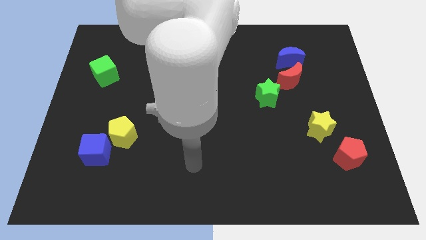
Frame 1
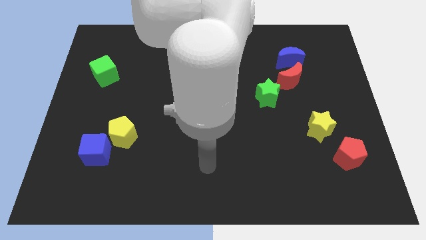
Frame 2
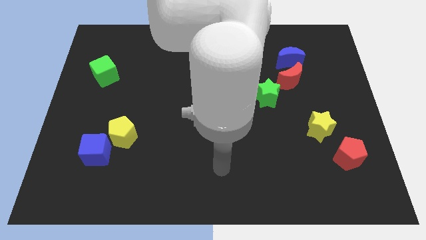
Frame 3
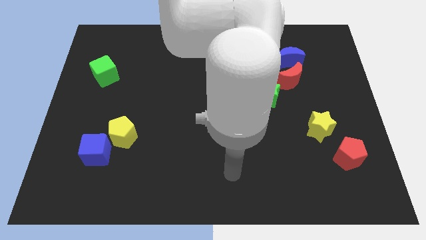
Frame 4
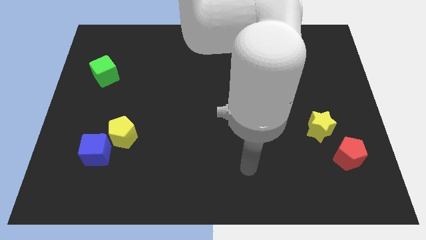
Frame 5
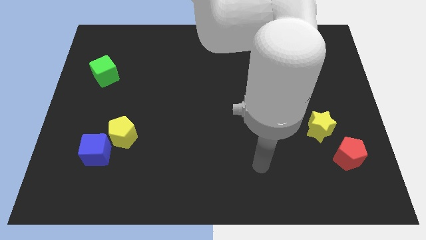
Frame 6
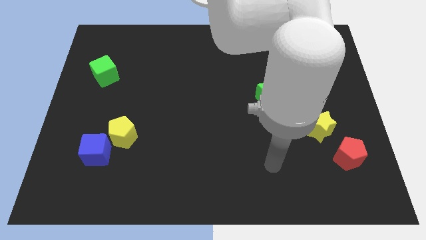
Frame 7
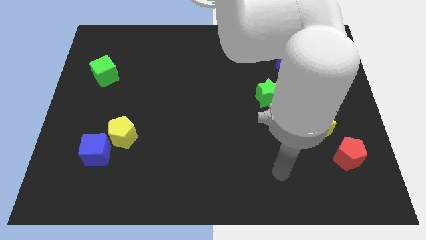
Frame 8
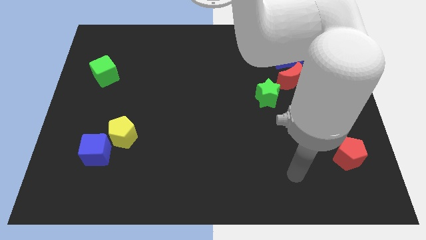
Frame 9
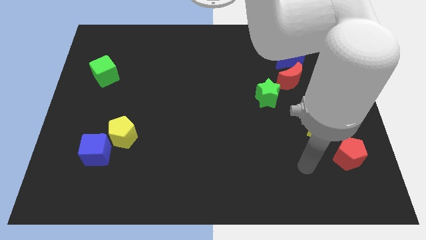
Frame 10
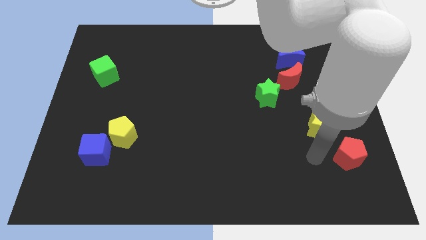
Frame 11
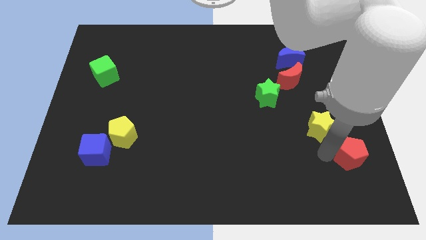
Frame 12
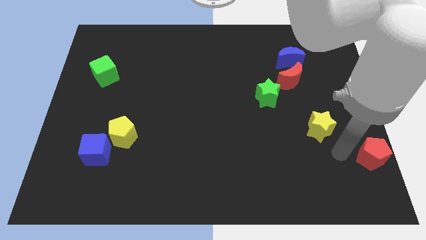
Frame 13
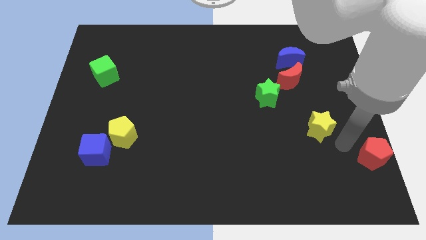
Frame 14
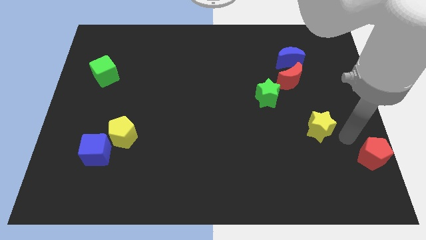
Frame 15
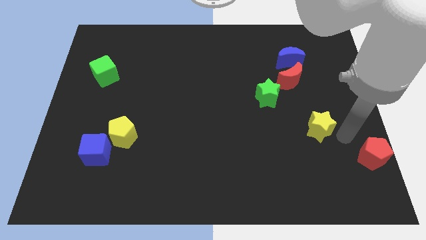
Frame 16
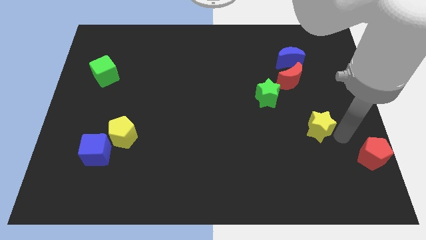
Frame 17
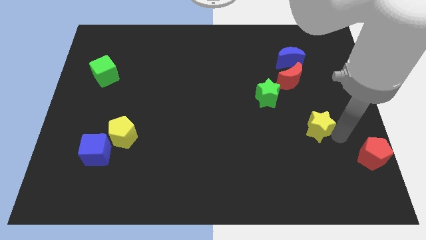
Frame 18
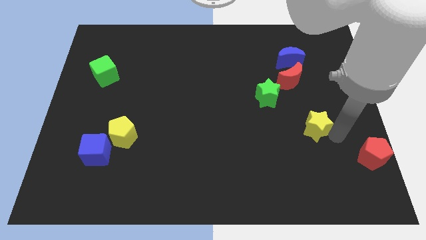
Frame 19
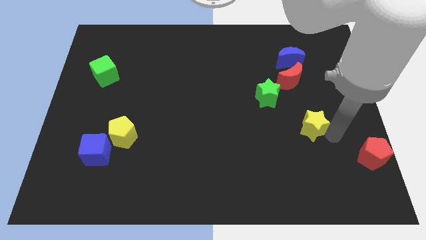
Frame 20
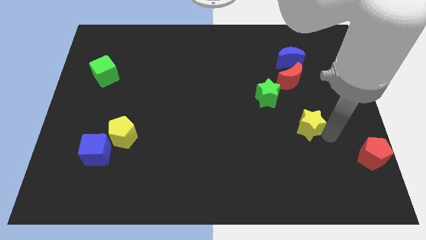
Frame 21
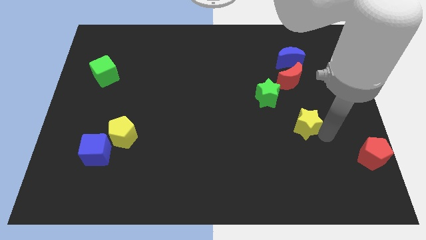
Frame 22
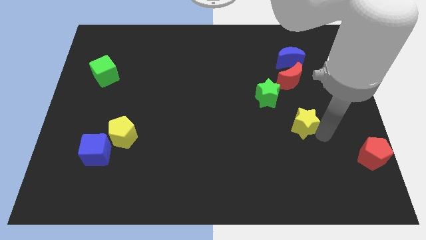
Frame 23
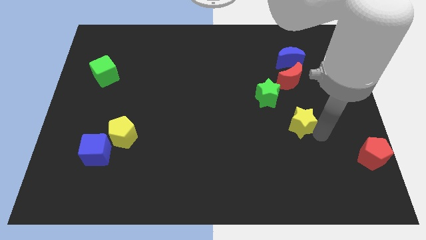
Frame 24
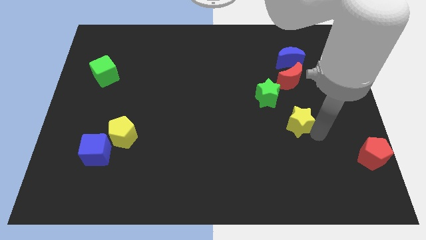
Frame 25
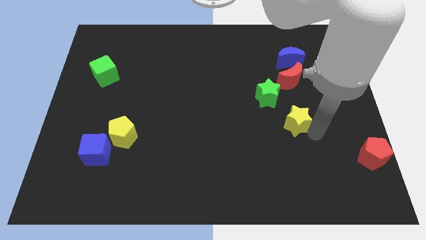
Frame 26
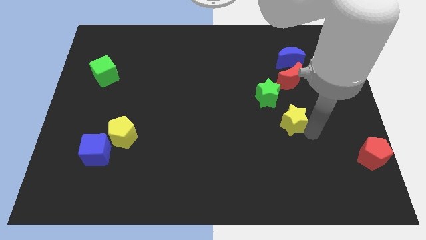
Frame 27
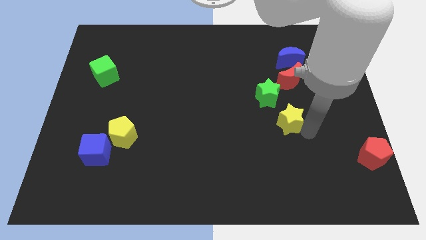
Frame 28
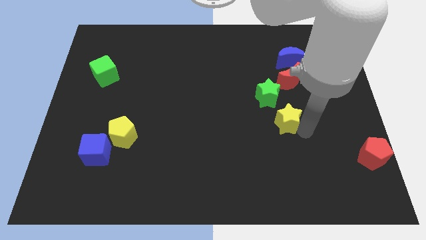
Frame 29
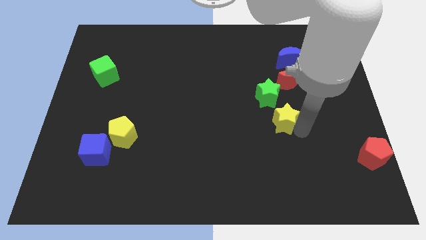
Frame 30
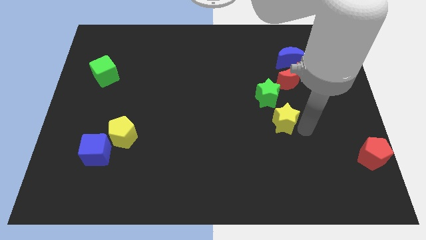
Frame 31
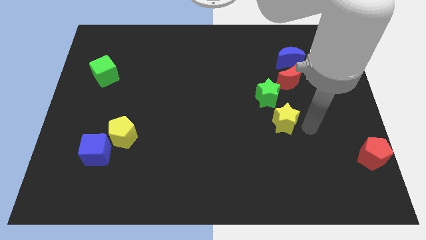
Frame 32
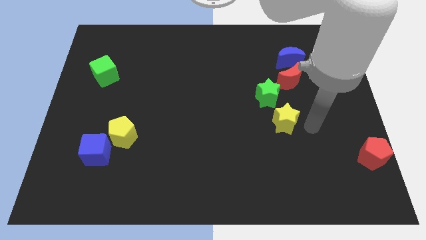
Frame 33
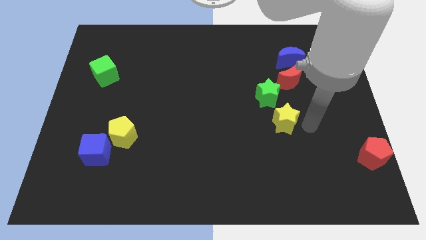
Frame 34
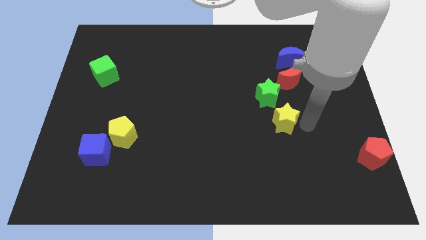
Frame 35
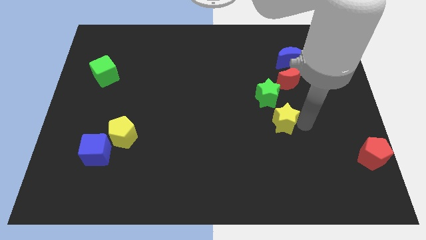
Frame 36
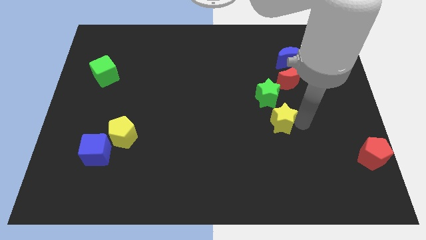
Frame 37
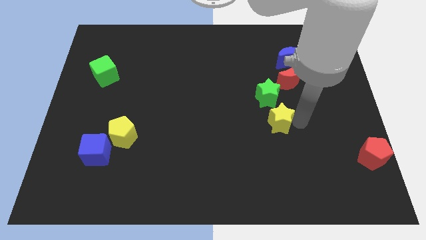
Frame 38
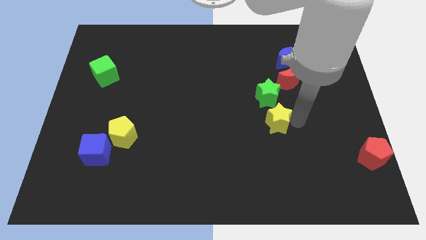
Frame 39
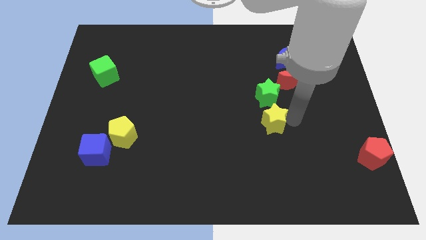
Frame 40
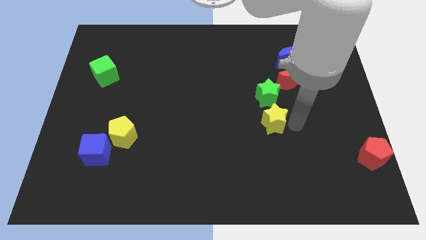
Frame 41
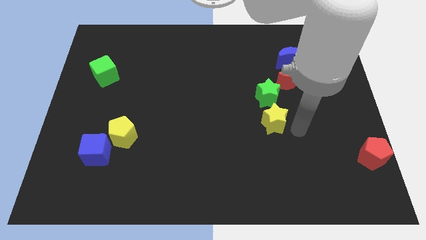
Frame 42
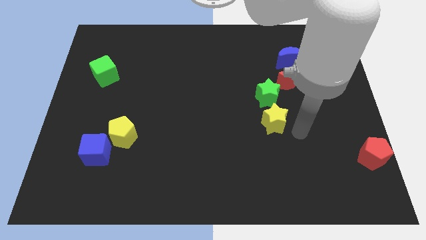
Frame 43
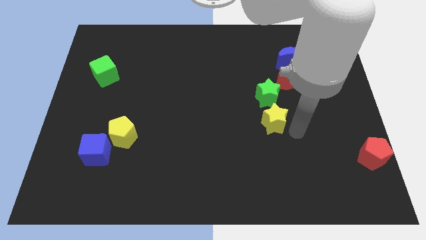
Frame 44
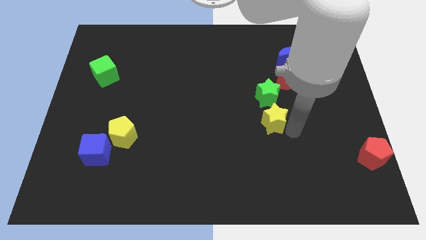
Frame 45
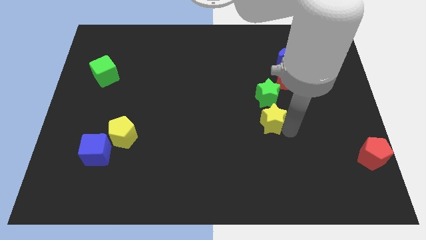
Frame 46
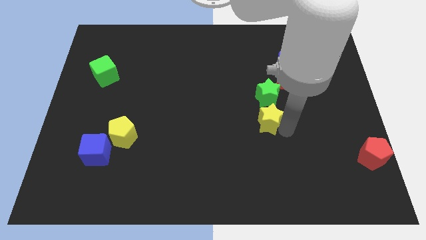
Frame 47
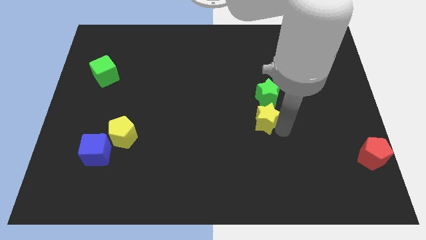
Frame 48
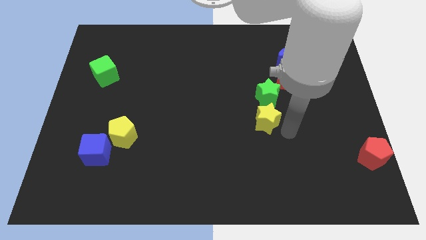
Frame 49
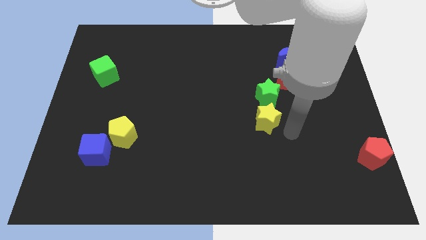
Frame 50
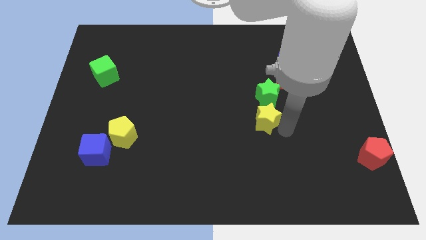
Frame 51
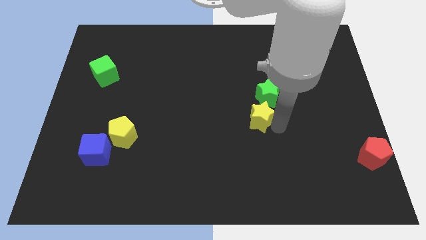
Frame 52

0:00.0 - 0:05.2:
slide the yellow star to the middle of the board

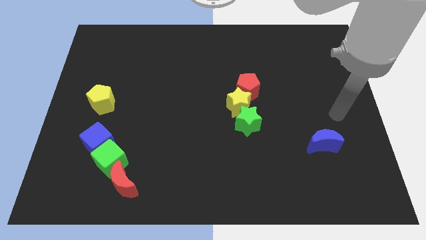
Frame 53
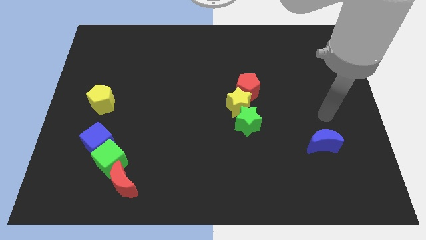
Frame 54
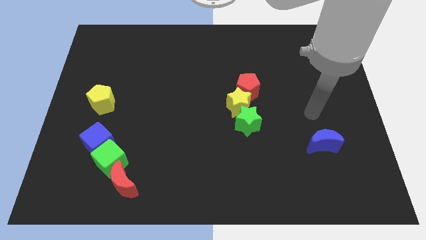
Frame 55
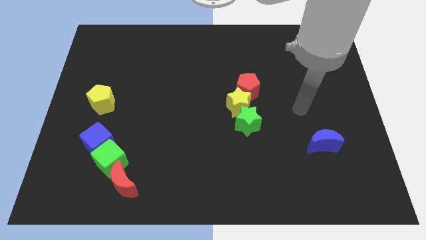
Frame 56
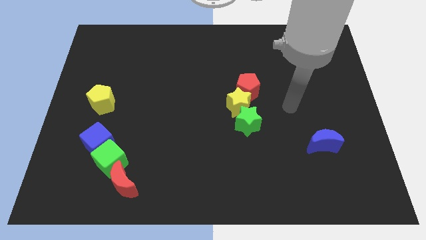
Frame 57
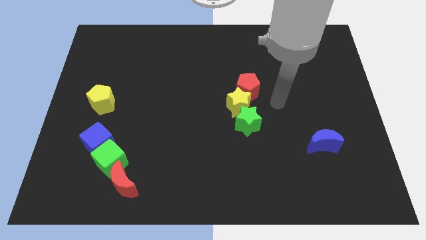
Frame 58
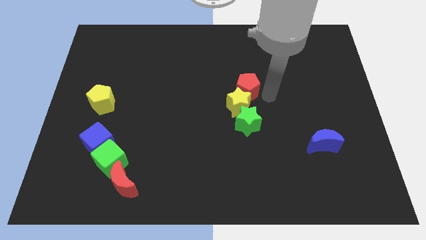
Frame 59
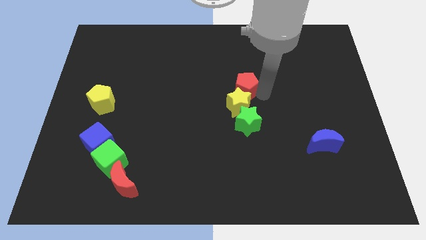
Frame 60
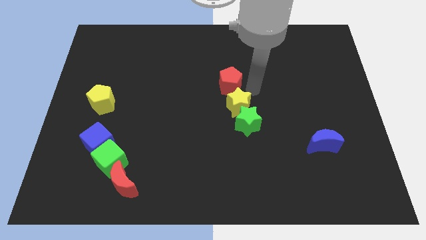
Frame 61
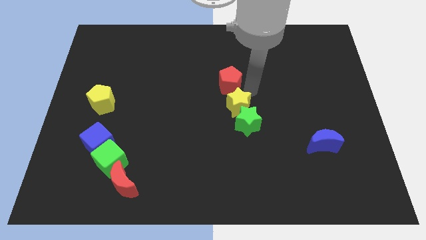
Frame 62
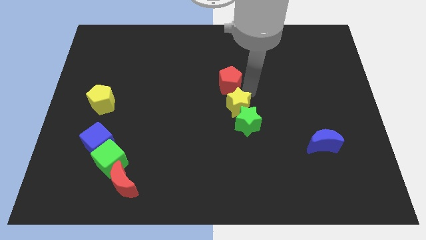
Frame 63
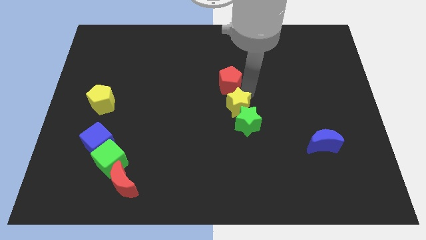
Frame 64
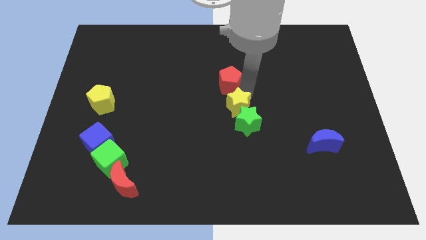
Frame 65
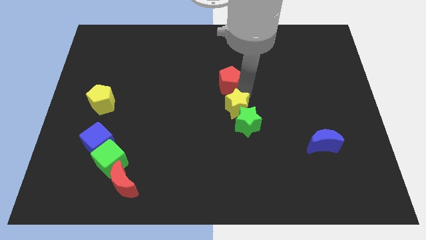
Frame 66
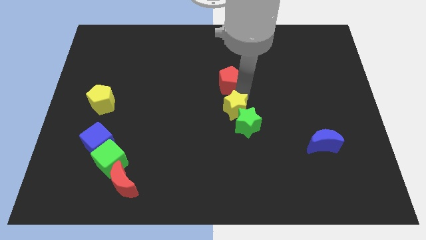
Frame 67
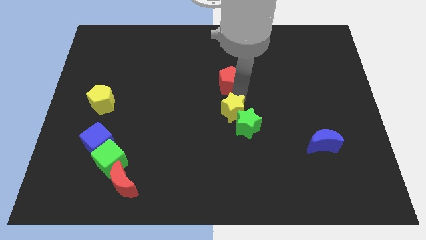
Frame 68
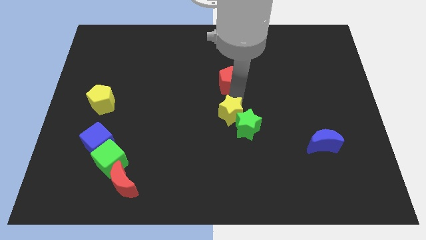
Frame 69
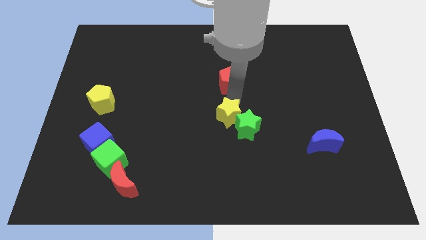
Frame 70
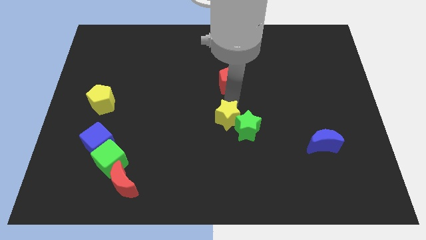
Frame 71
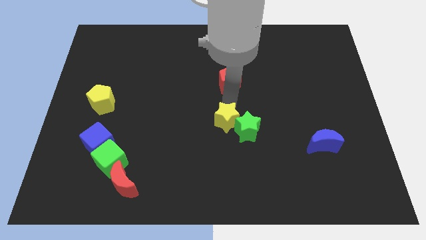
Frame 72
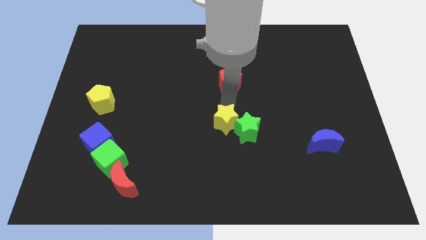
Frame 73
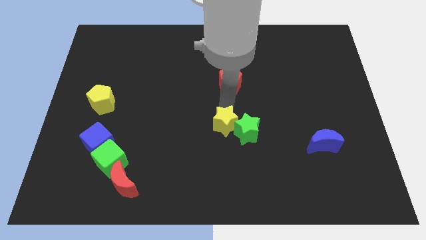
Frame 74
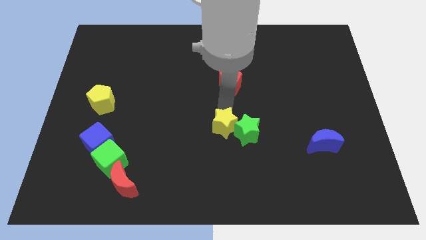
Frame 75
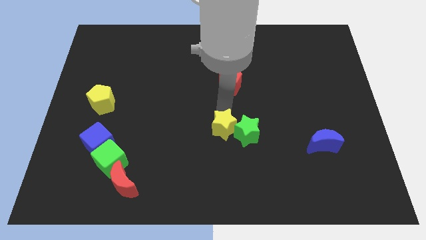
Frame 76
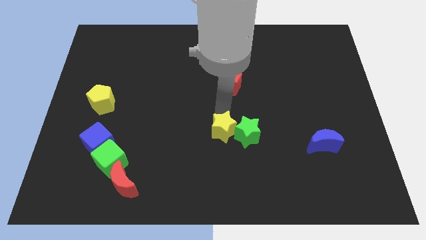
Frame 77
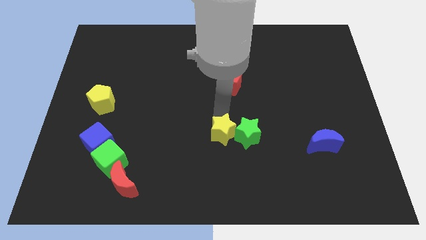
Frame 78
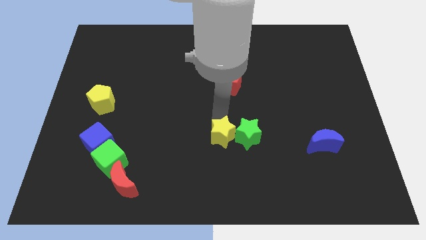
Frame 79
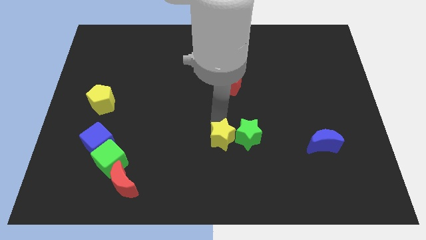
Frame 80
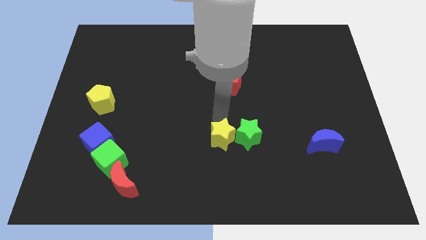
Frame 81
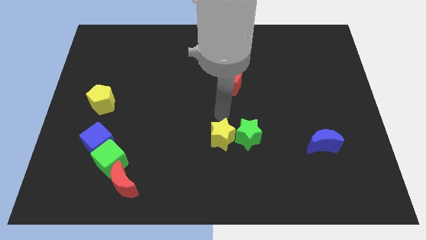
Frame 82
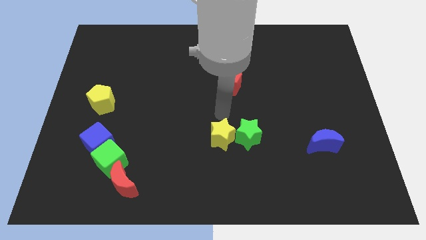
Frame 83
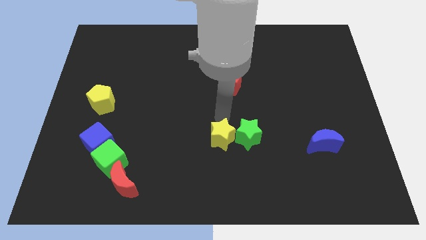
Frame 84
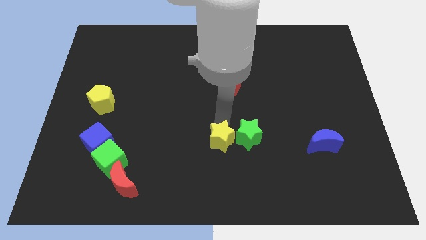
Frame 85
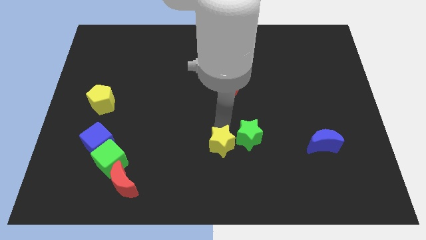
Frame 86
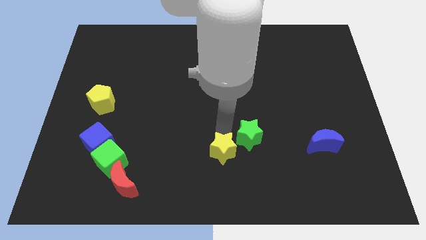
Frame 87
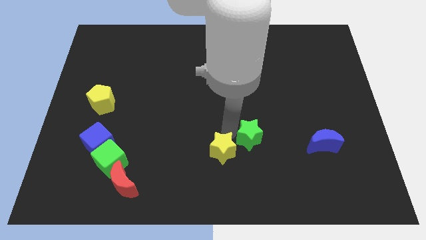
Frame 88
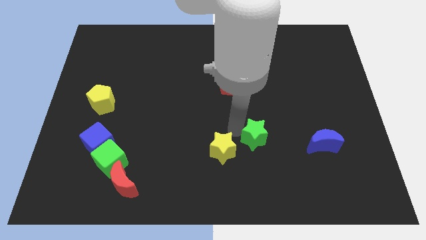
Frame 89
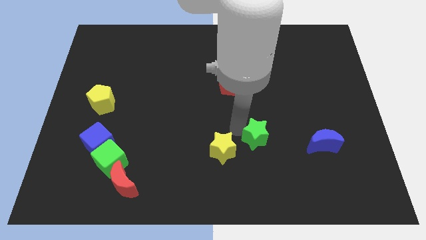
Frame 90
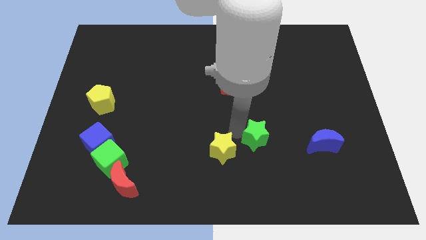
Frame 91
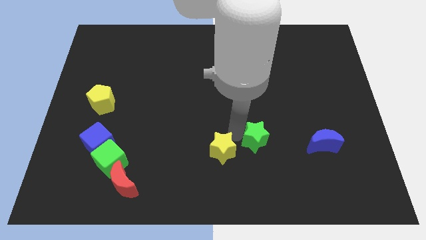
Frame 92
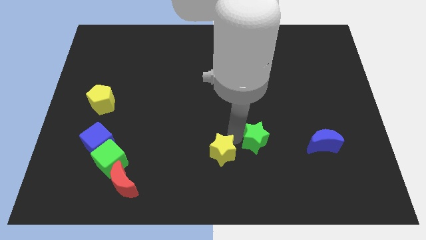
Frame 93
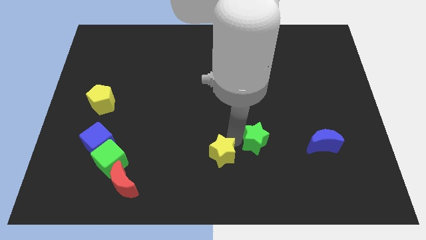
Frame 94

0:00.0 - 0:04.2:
move the yellow star to the bottom
